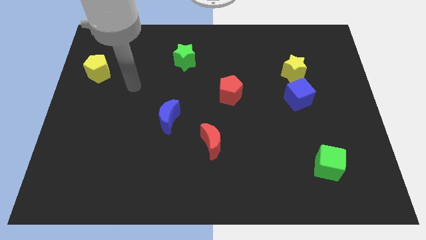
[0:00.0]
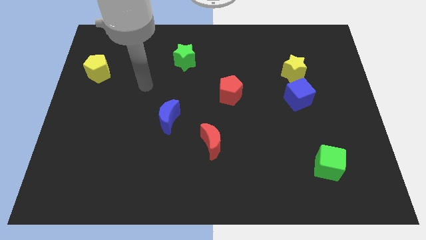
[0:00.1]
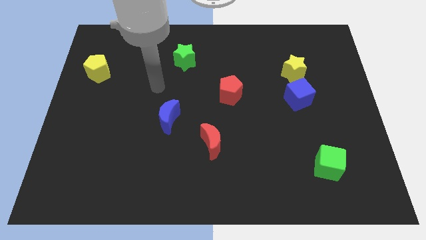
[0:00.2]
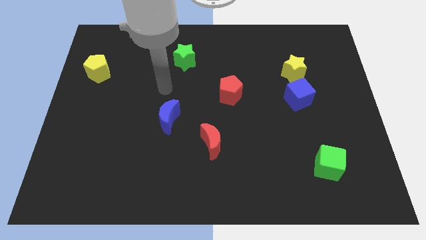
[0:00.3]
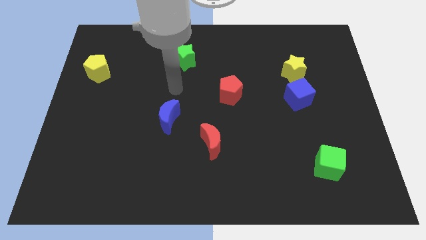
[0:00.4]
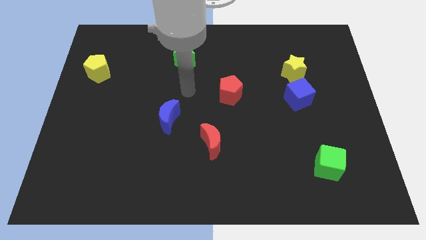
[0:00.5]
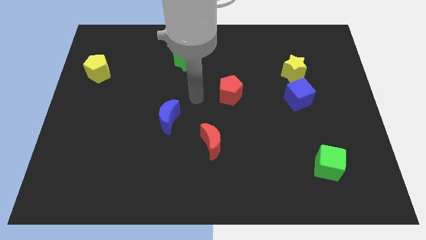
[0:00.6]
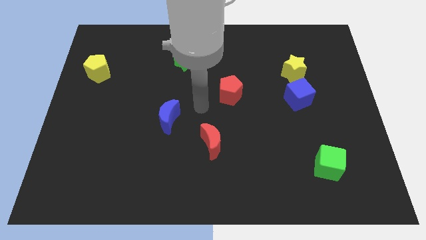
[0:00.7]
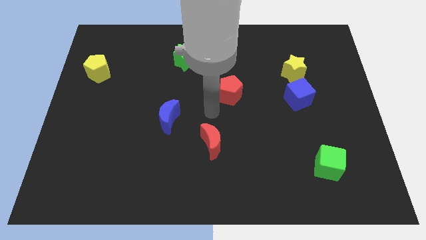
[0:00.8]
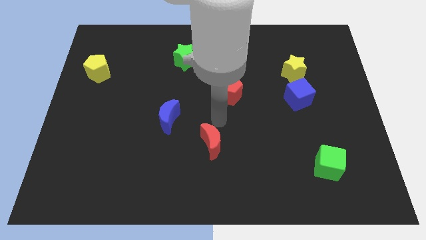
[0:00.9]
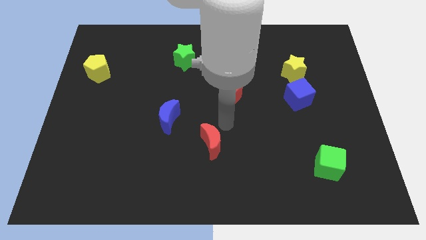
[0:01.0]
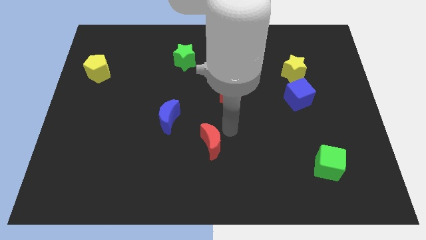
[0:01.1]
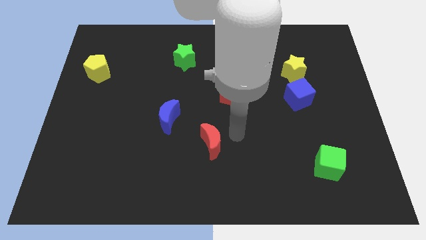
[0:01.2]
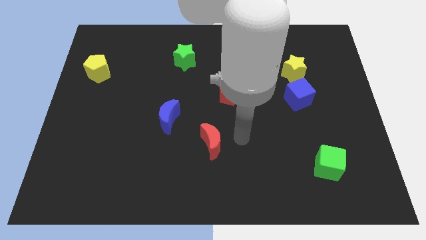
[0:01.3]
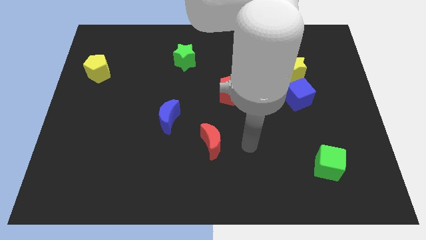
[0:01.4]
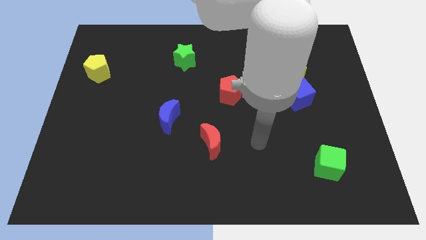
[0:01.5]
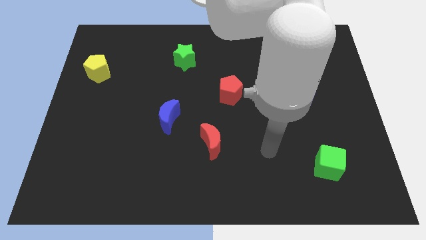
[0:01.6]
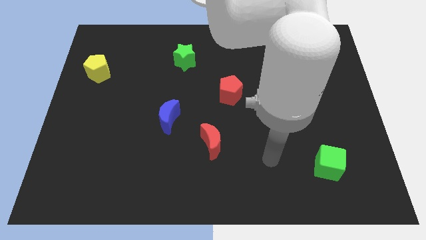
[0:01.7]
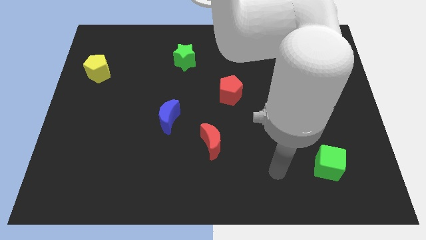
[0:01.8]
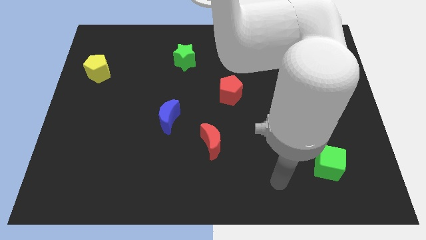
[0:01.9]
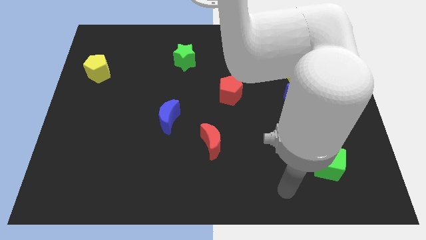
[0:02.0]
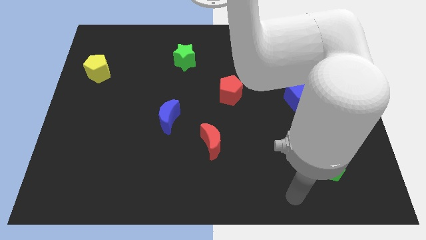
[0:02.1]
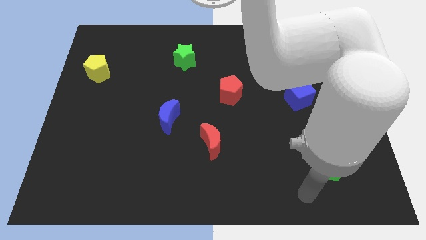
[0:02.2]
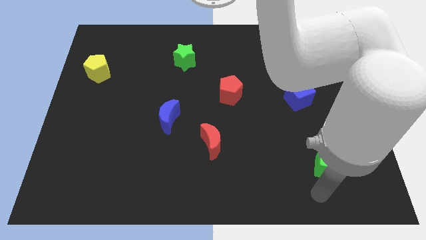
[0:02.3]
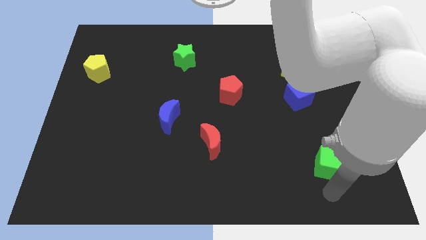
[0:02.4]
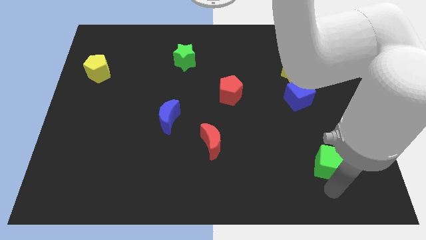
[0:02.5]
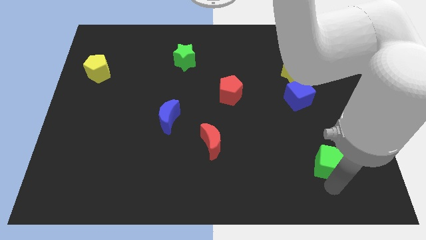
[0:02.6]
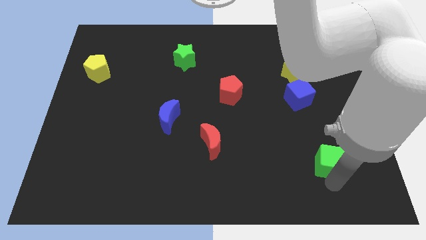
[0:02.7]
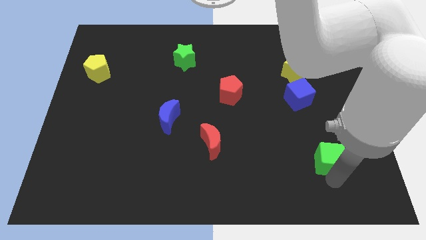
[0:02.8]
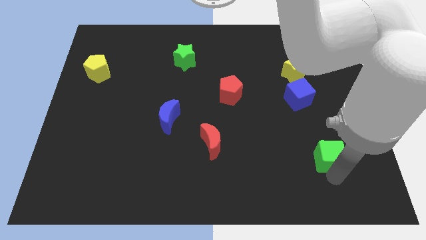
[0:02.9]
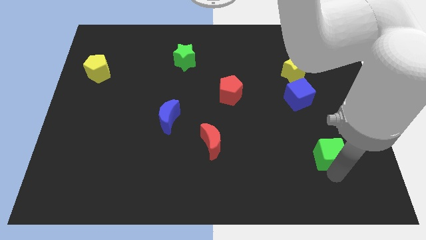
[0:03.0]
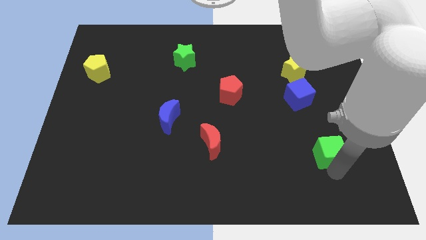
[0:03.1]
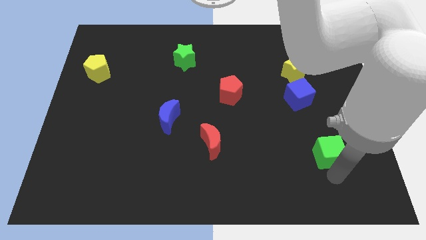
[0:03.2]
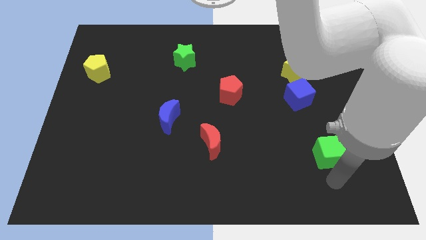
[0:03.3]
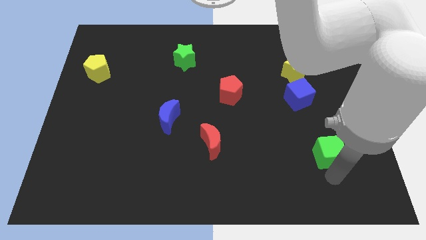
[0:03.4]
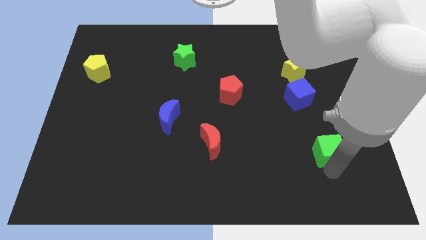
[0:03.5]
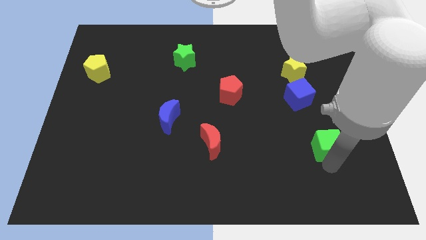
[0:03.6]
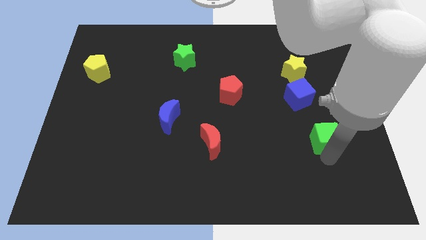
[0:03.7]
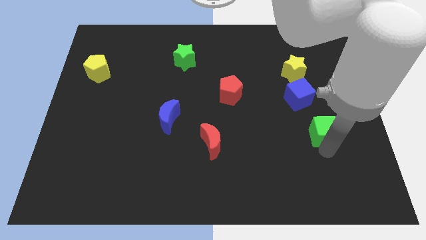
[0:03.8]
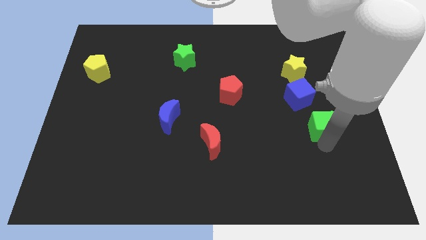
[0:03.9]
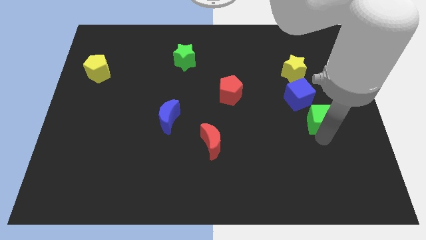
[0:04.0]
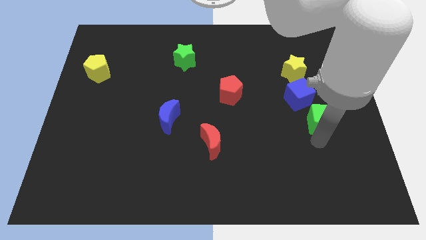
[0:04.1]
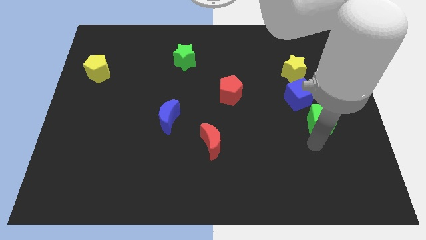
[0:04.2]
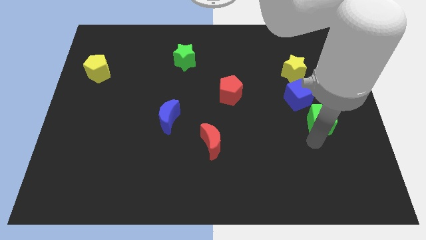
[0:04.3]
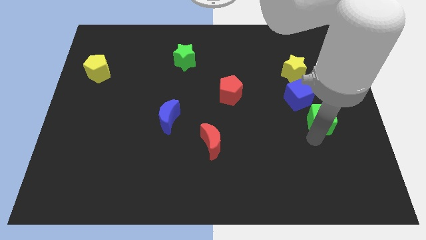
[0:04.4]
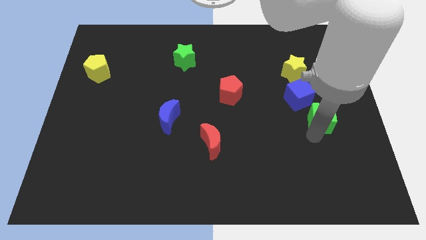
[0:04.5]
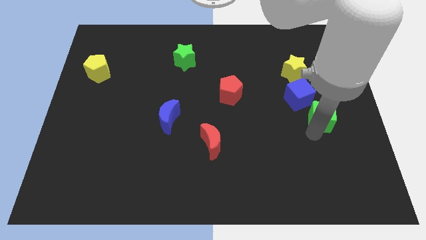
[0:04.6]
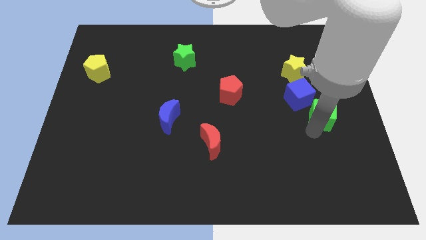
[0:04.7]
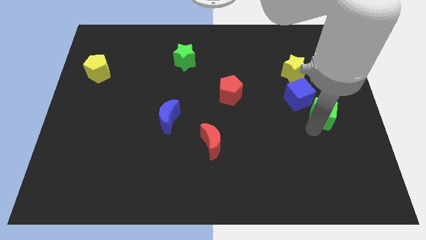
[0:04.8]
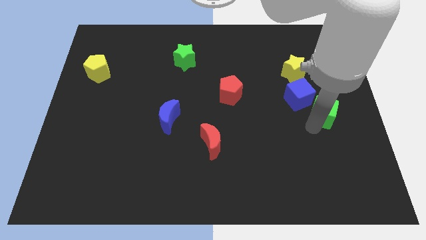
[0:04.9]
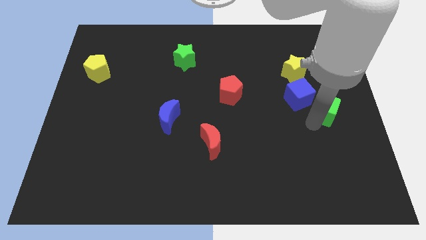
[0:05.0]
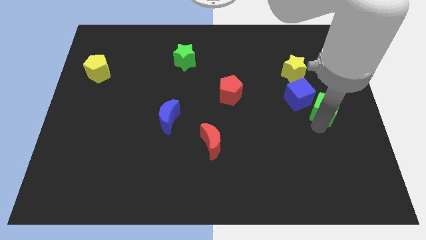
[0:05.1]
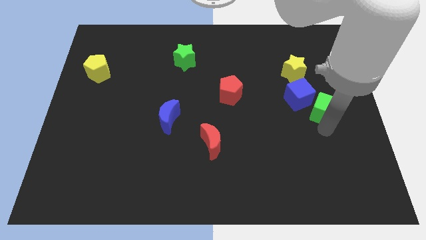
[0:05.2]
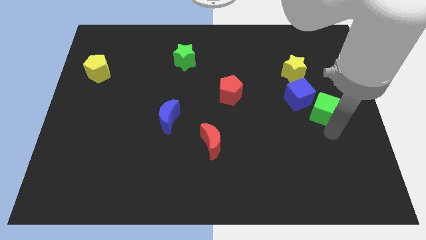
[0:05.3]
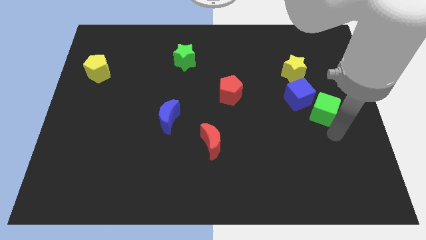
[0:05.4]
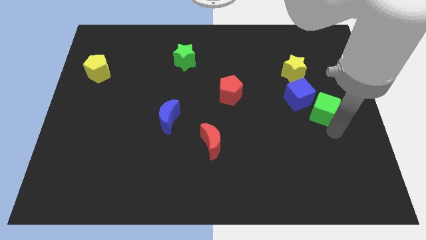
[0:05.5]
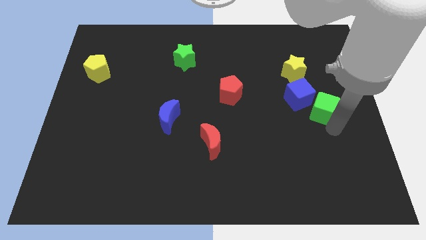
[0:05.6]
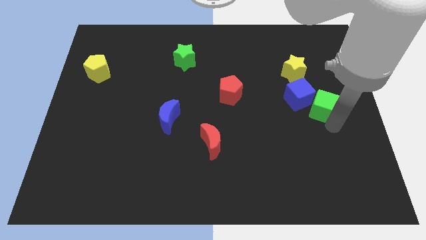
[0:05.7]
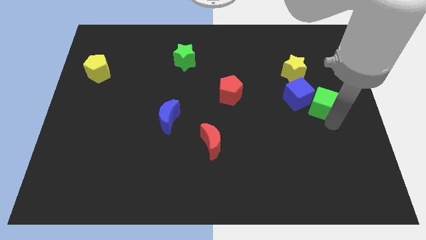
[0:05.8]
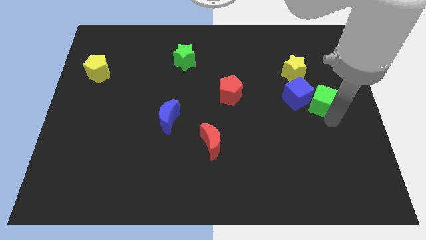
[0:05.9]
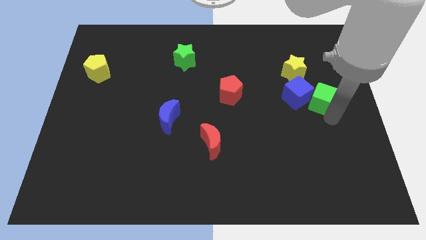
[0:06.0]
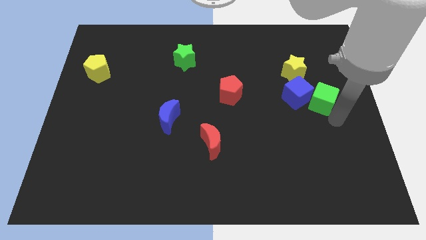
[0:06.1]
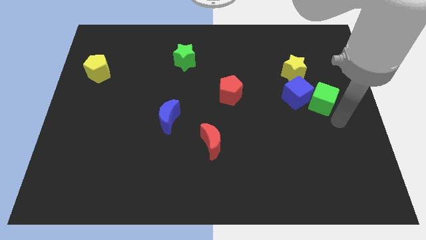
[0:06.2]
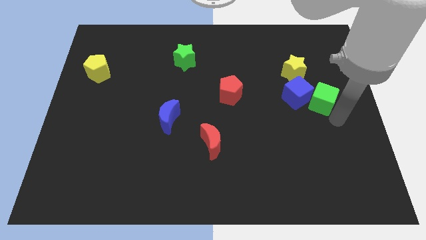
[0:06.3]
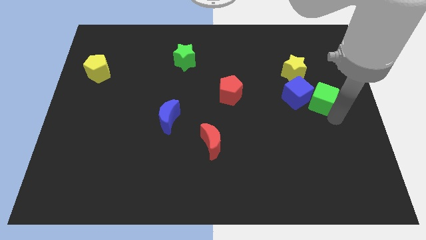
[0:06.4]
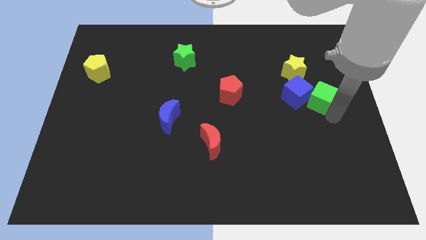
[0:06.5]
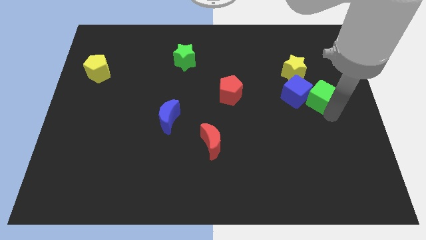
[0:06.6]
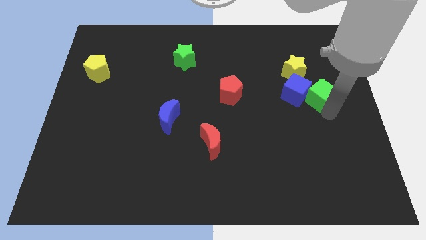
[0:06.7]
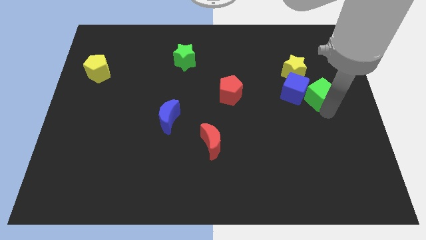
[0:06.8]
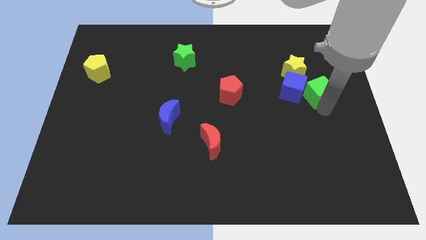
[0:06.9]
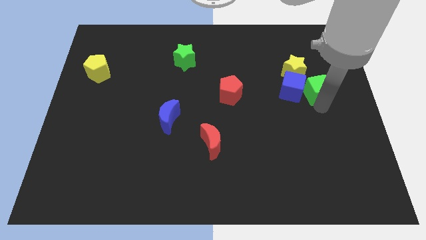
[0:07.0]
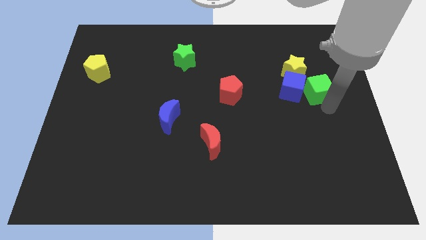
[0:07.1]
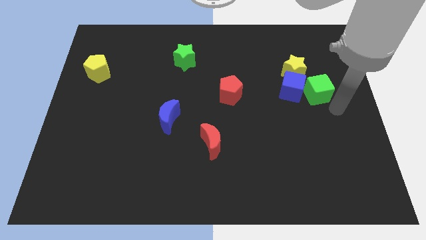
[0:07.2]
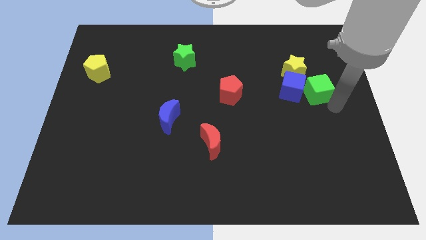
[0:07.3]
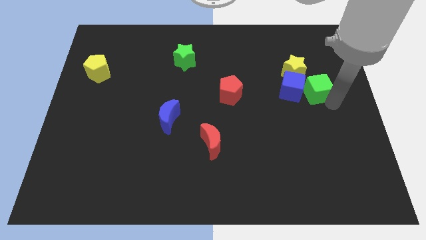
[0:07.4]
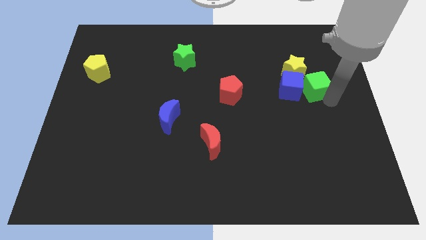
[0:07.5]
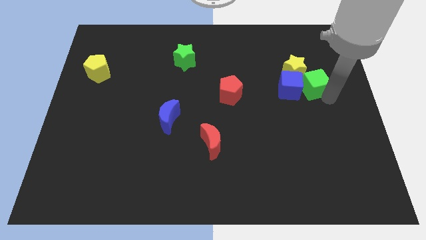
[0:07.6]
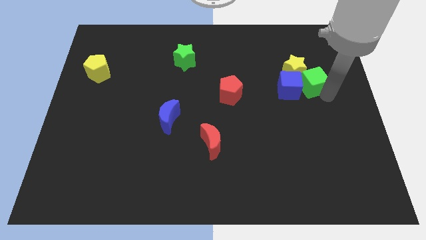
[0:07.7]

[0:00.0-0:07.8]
put the green cube close to the yellow star
